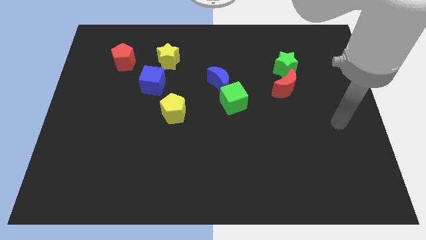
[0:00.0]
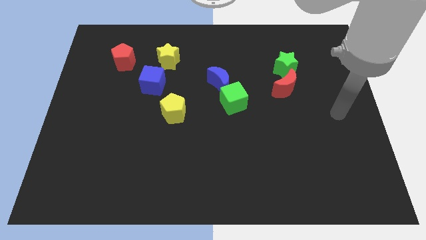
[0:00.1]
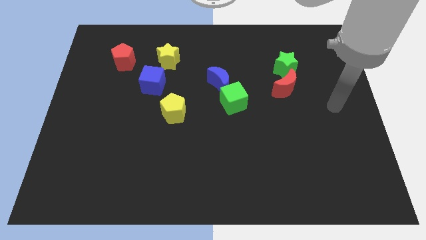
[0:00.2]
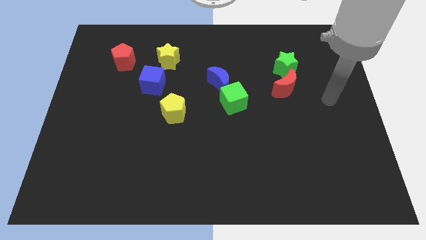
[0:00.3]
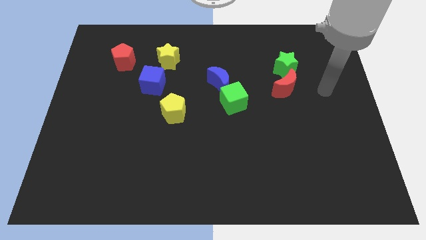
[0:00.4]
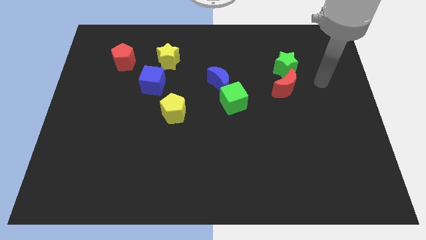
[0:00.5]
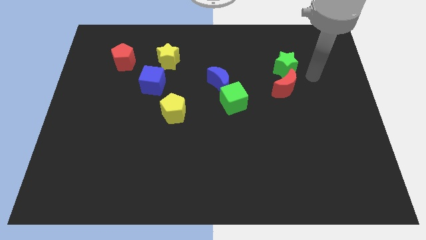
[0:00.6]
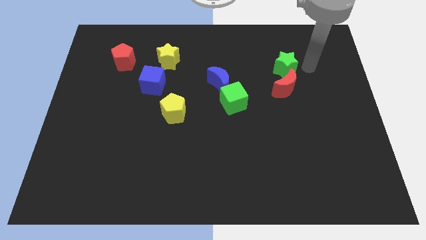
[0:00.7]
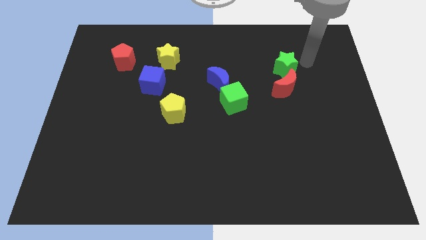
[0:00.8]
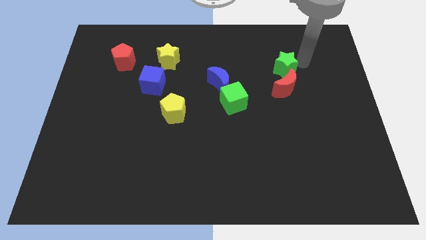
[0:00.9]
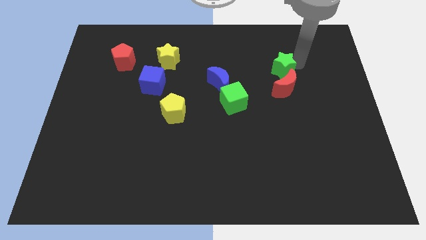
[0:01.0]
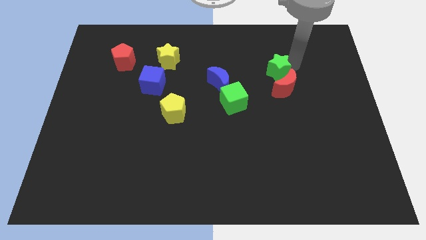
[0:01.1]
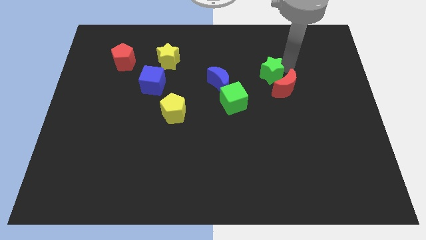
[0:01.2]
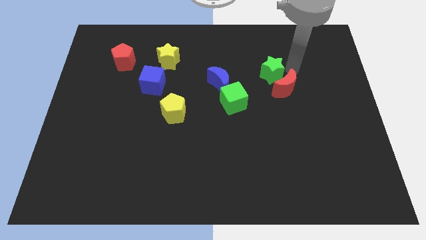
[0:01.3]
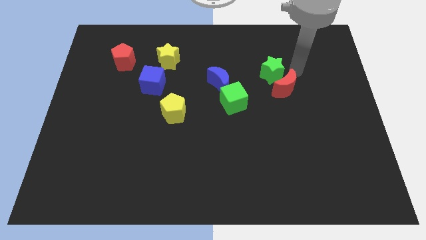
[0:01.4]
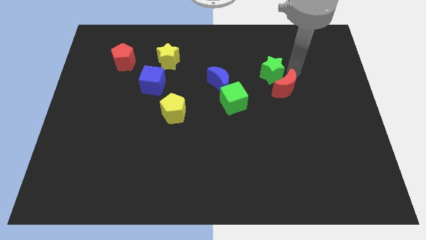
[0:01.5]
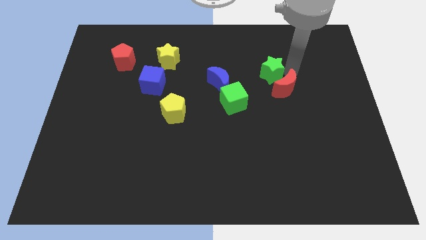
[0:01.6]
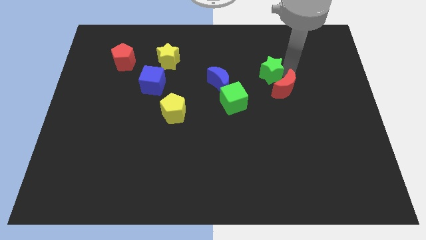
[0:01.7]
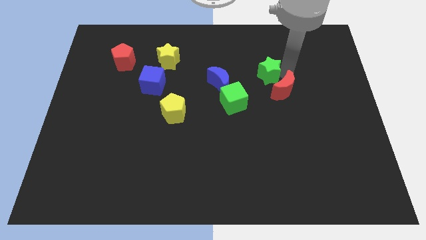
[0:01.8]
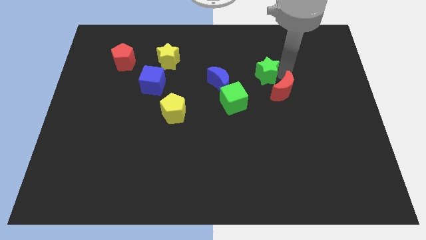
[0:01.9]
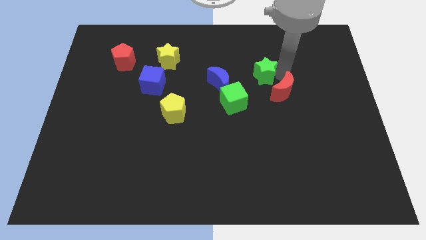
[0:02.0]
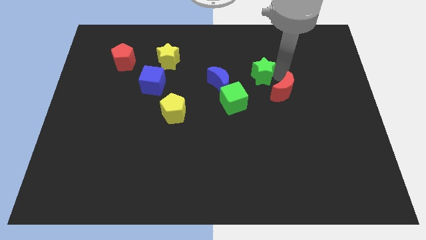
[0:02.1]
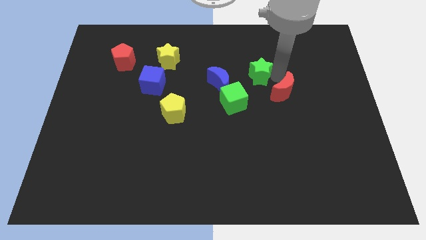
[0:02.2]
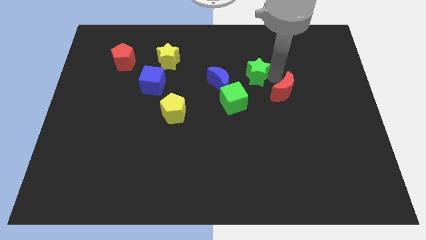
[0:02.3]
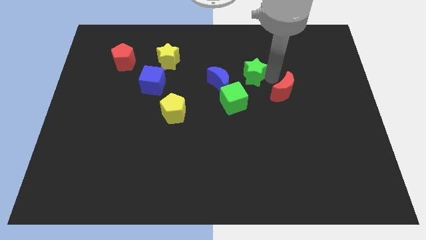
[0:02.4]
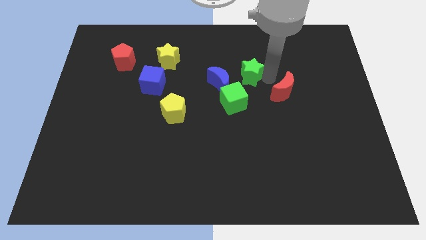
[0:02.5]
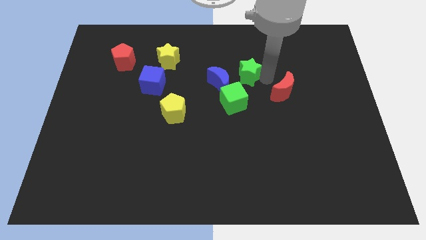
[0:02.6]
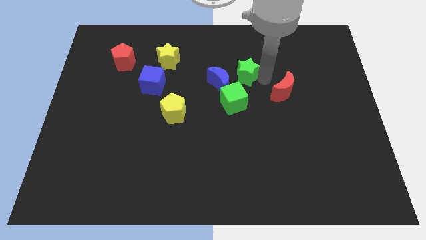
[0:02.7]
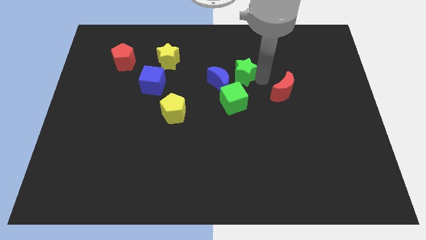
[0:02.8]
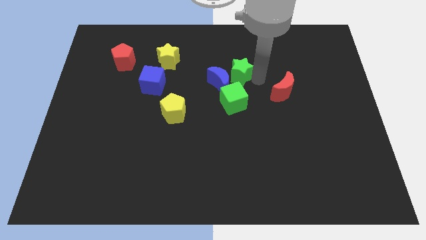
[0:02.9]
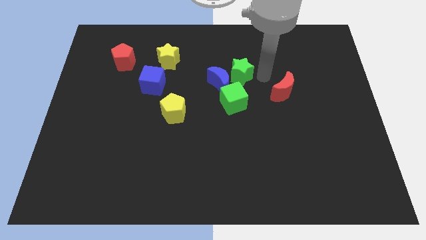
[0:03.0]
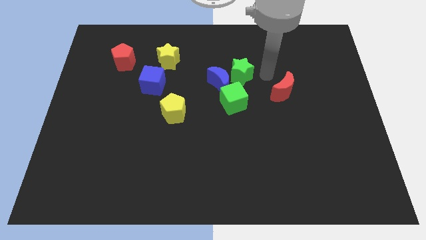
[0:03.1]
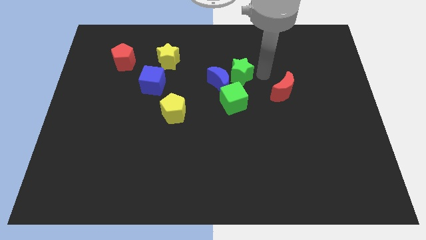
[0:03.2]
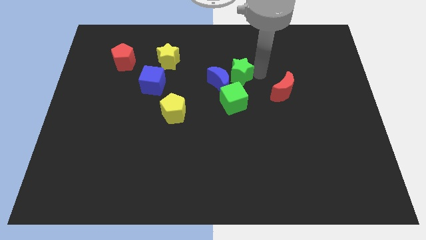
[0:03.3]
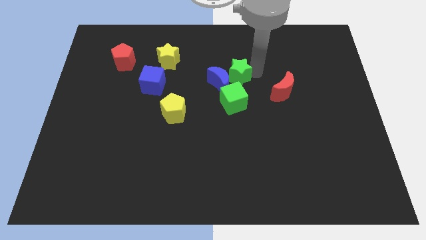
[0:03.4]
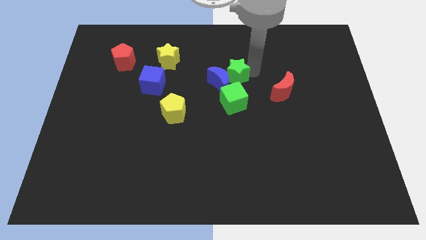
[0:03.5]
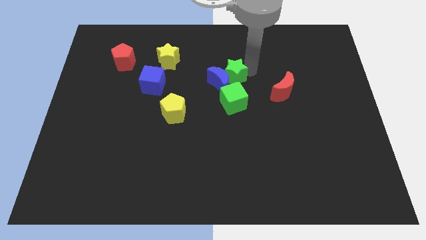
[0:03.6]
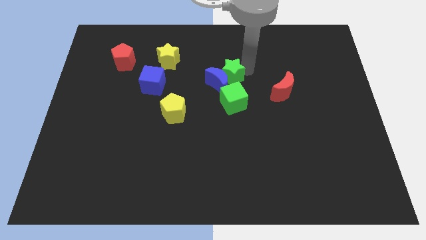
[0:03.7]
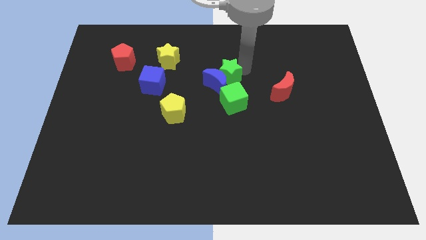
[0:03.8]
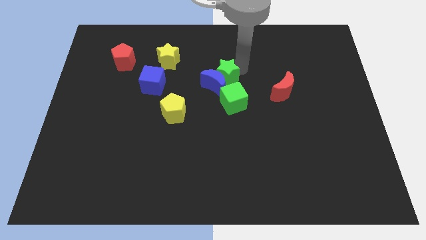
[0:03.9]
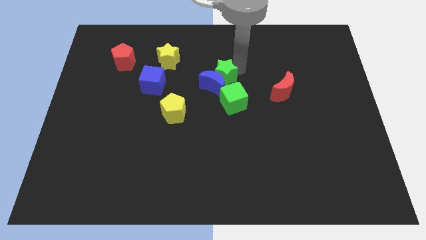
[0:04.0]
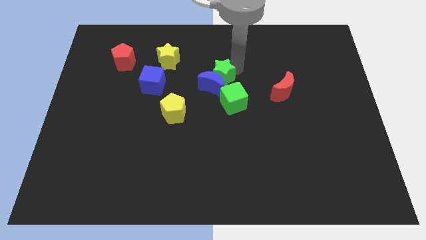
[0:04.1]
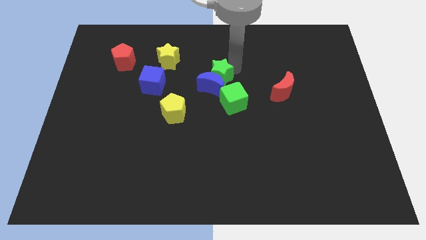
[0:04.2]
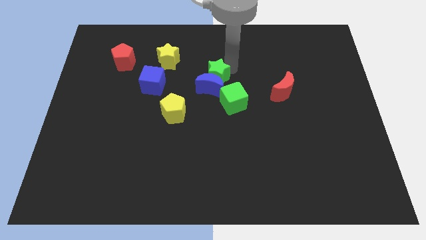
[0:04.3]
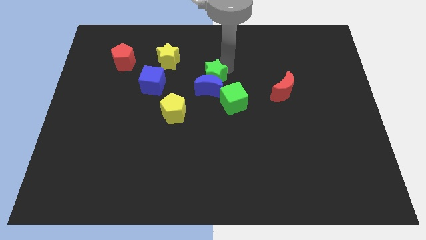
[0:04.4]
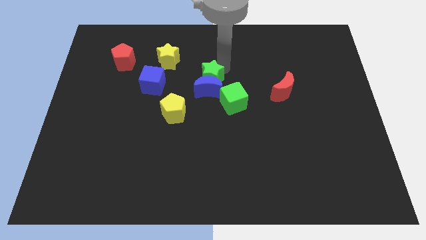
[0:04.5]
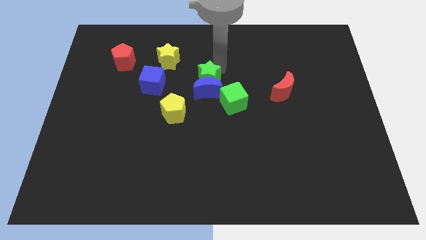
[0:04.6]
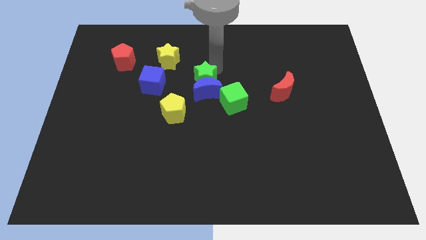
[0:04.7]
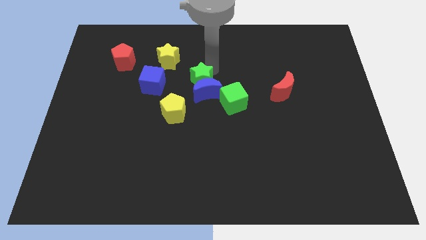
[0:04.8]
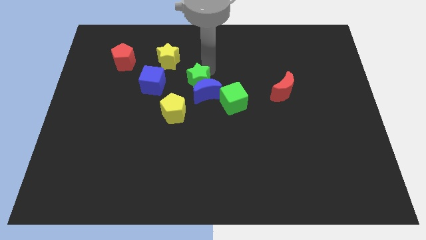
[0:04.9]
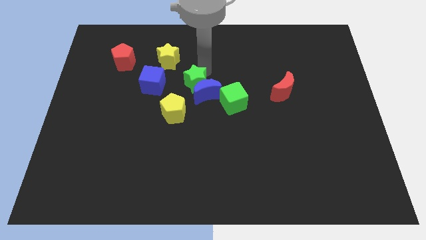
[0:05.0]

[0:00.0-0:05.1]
push the green star just left of the blue moon

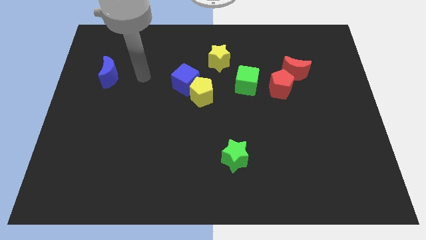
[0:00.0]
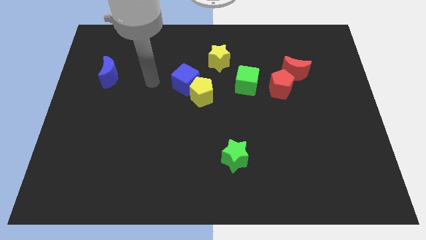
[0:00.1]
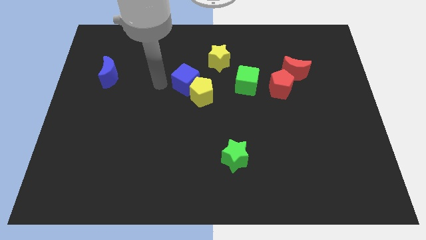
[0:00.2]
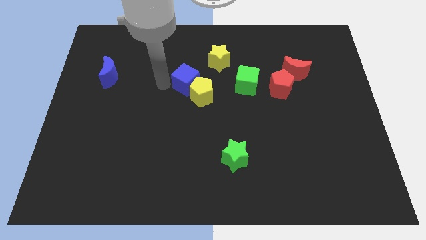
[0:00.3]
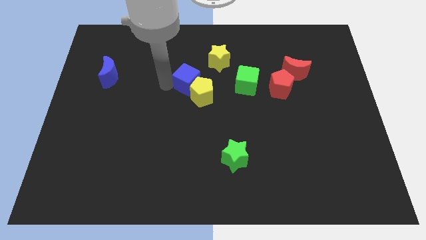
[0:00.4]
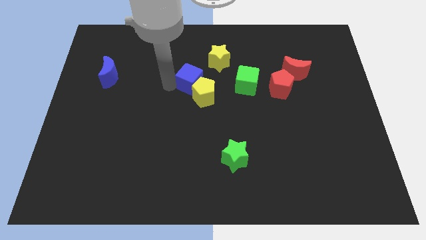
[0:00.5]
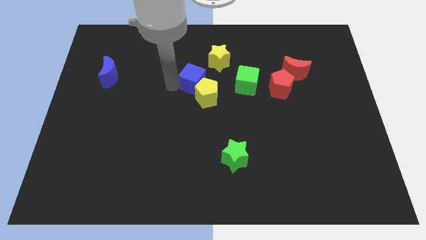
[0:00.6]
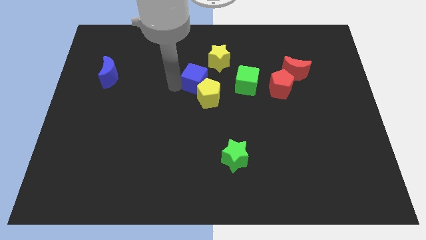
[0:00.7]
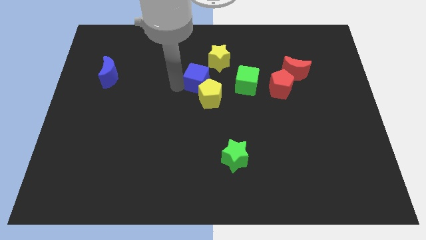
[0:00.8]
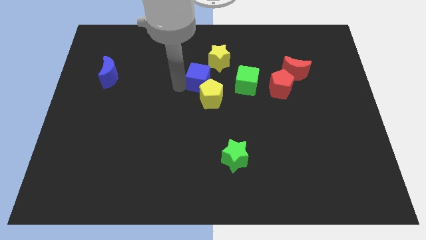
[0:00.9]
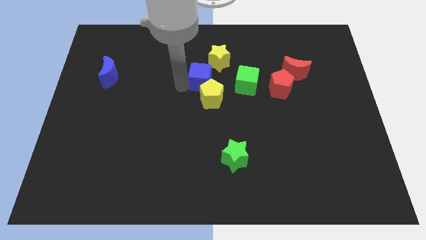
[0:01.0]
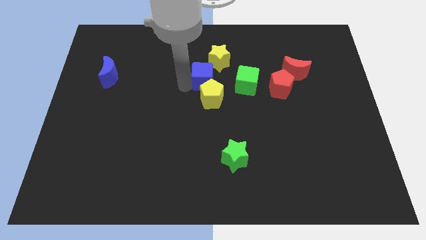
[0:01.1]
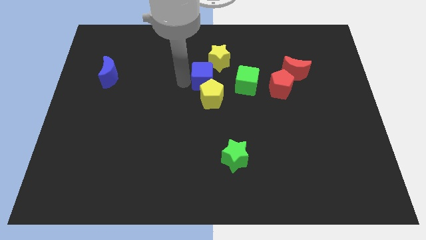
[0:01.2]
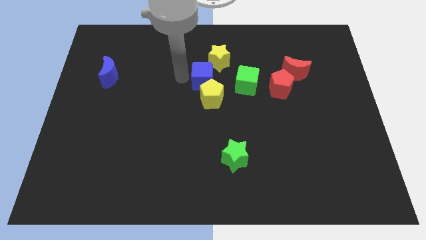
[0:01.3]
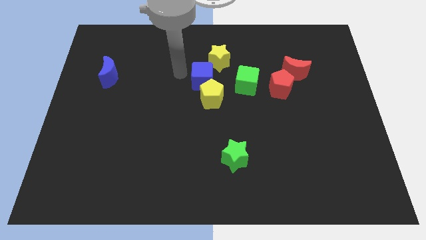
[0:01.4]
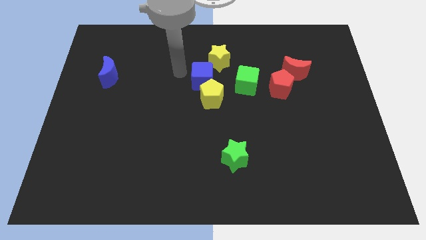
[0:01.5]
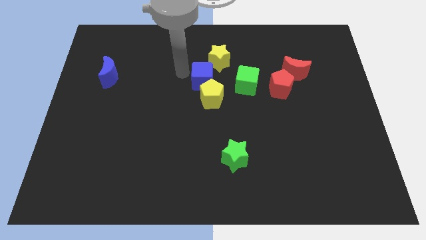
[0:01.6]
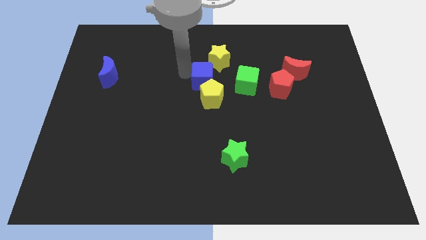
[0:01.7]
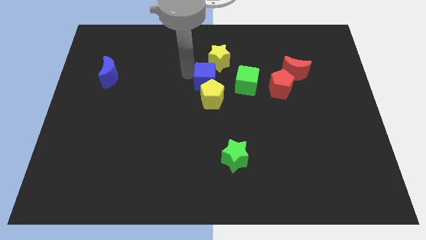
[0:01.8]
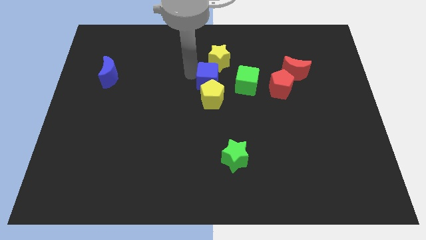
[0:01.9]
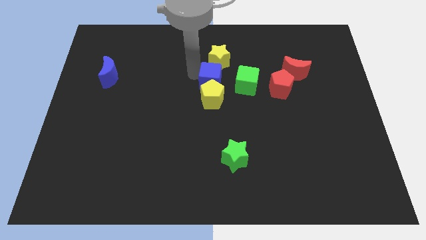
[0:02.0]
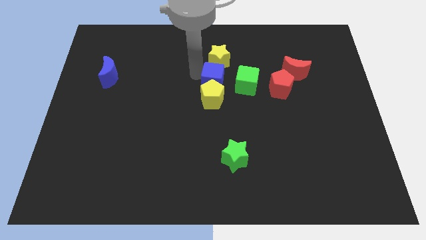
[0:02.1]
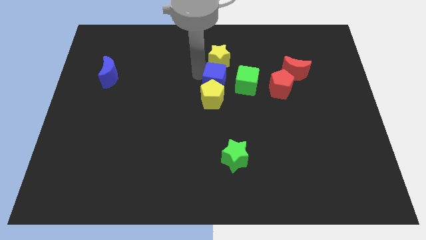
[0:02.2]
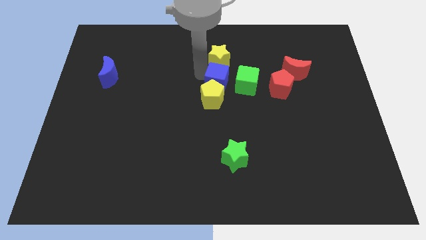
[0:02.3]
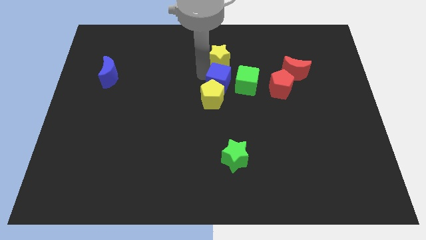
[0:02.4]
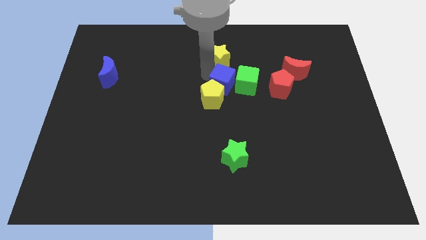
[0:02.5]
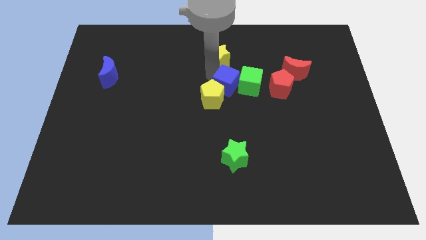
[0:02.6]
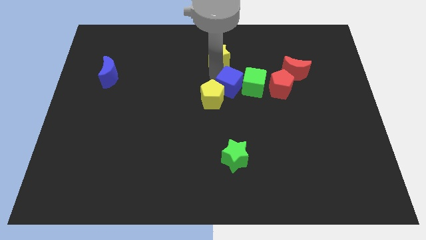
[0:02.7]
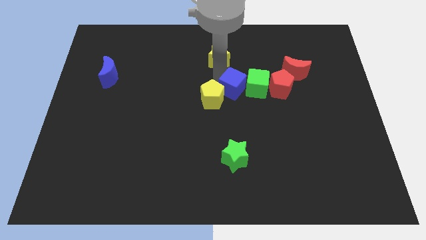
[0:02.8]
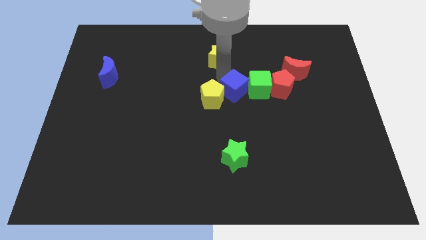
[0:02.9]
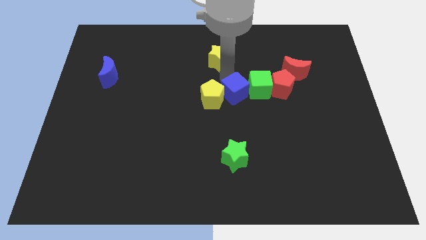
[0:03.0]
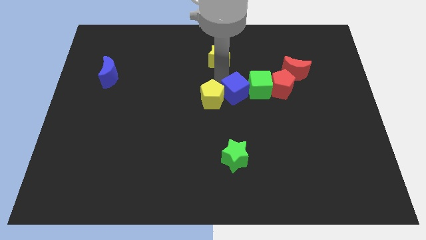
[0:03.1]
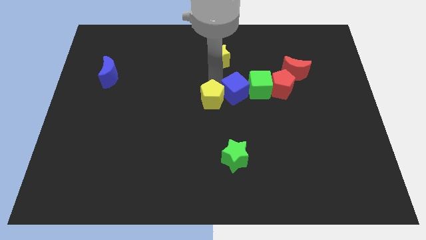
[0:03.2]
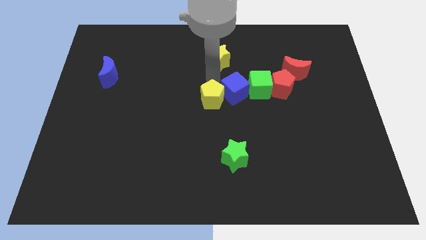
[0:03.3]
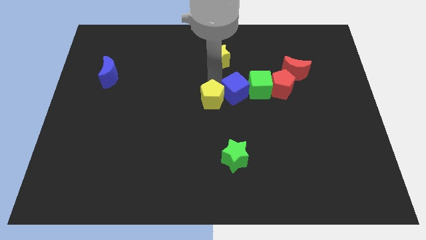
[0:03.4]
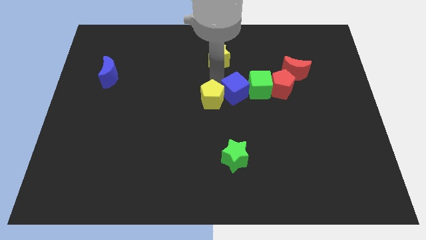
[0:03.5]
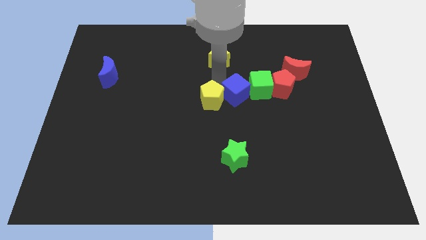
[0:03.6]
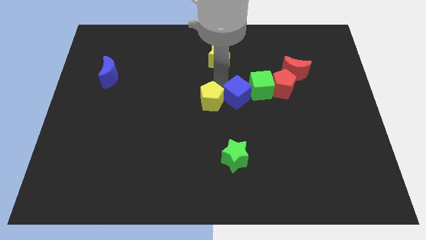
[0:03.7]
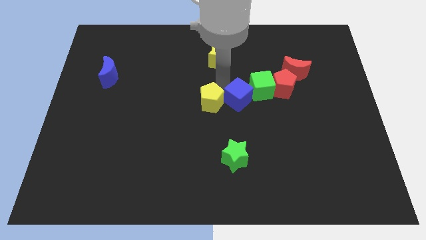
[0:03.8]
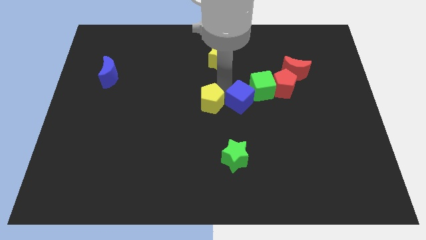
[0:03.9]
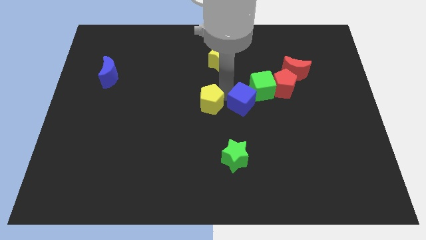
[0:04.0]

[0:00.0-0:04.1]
slide the blue cube diagonally down and to the left of the red pentagon
